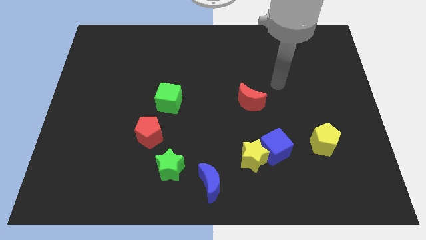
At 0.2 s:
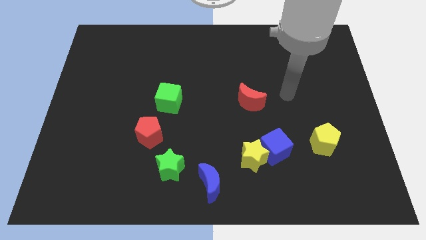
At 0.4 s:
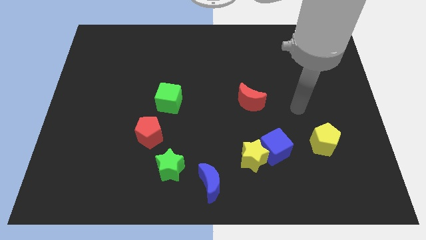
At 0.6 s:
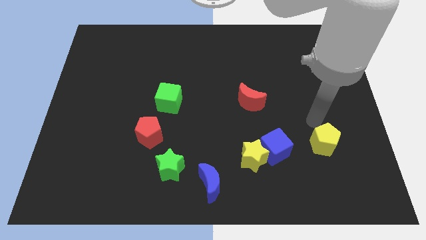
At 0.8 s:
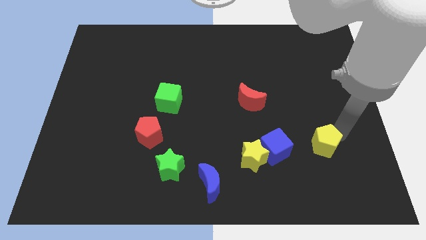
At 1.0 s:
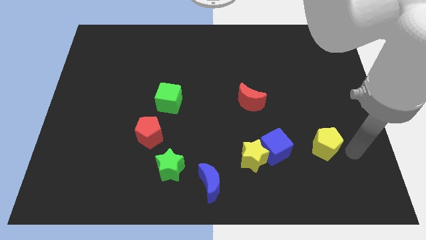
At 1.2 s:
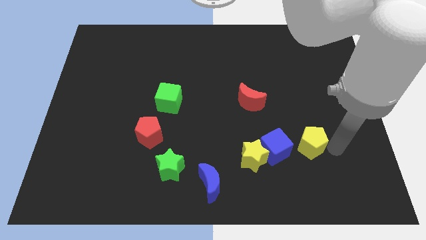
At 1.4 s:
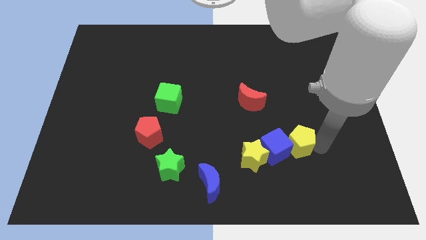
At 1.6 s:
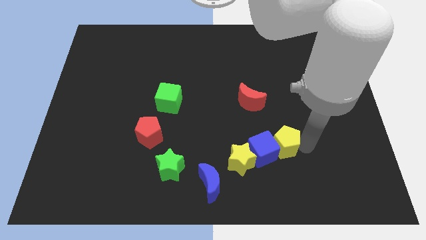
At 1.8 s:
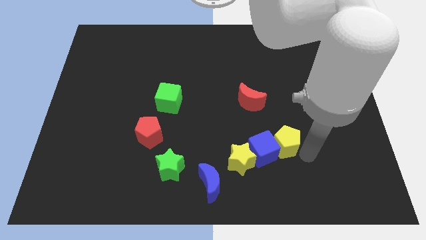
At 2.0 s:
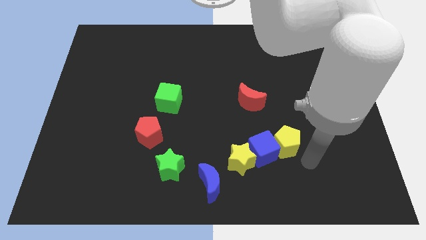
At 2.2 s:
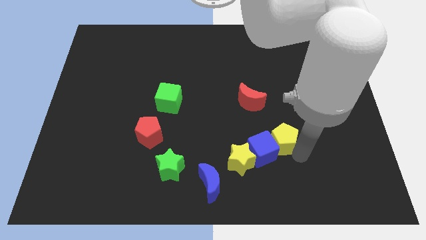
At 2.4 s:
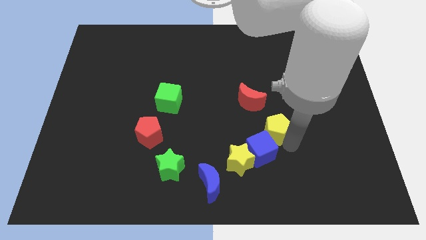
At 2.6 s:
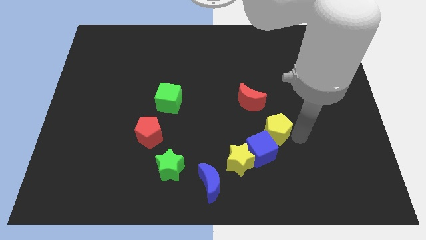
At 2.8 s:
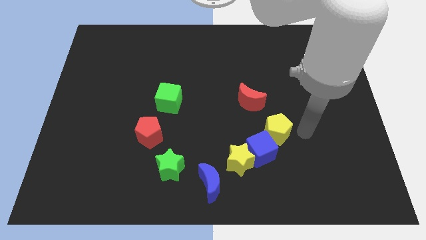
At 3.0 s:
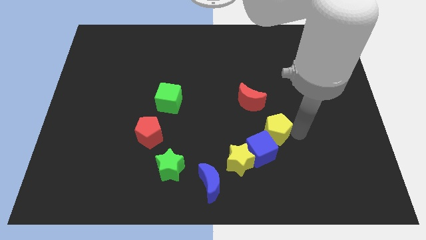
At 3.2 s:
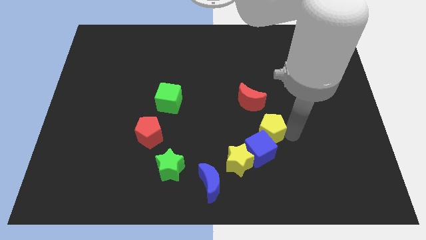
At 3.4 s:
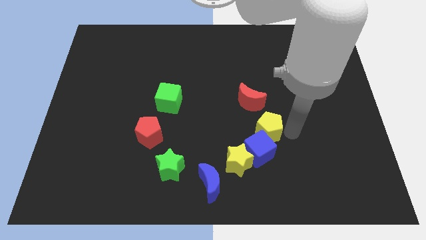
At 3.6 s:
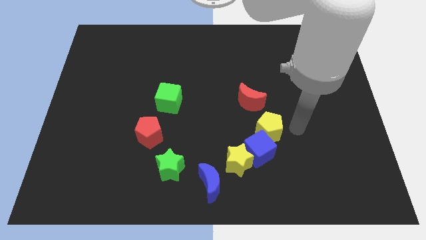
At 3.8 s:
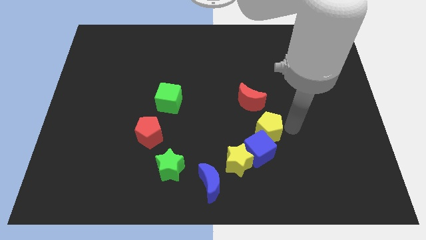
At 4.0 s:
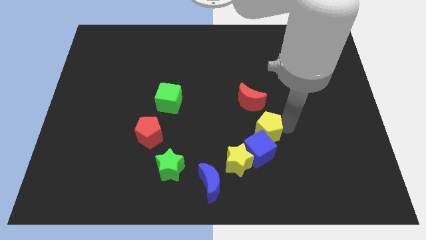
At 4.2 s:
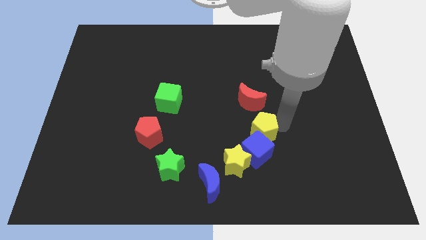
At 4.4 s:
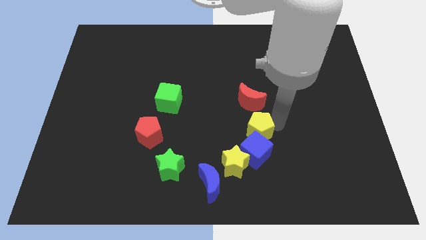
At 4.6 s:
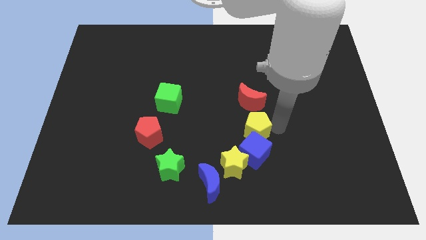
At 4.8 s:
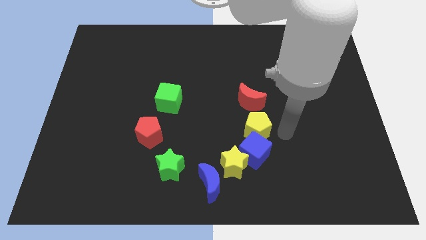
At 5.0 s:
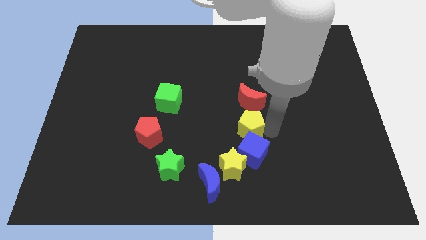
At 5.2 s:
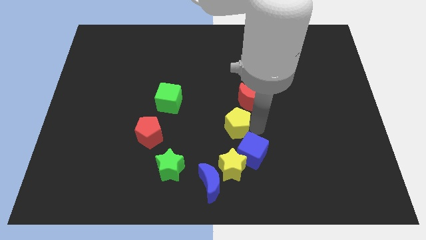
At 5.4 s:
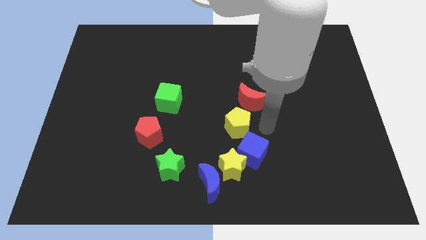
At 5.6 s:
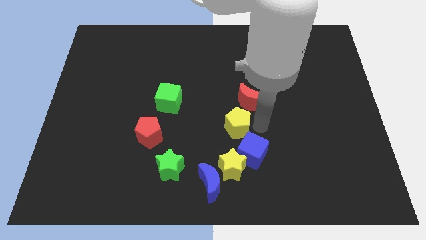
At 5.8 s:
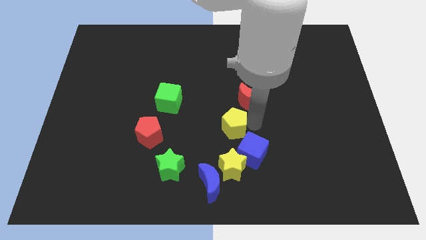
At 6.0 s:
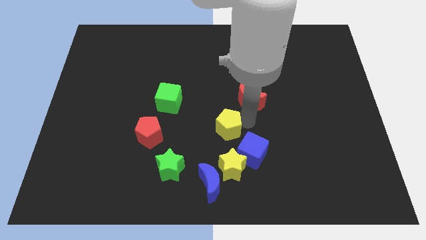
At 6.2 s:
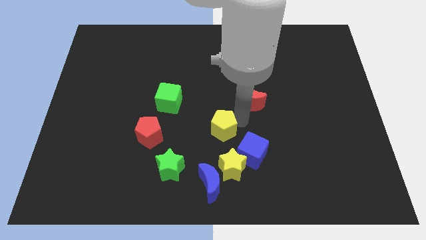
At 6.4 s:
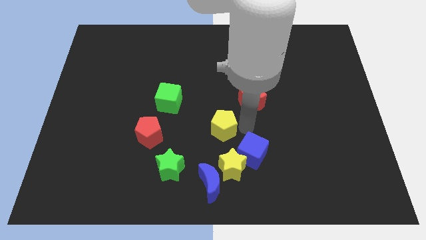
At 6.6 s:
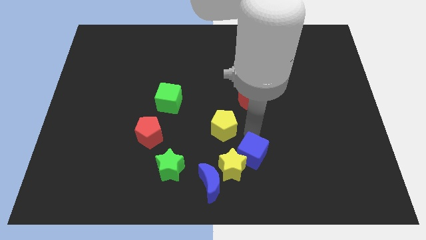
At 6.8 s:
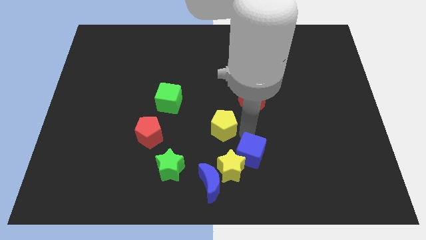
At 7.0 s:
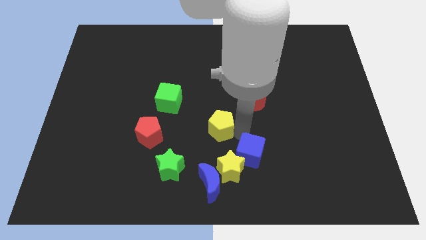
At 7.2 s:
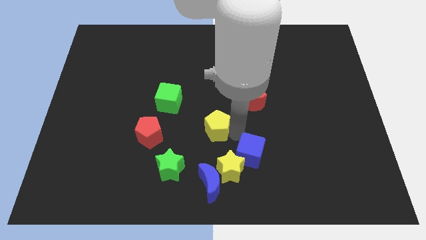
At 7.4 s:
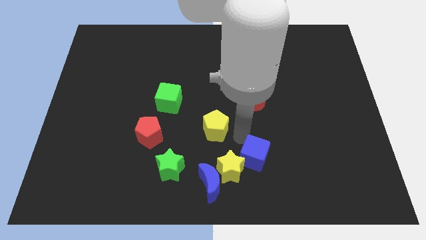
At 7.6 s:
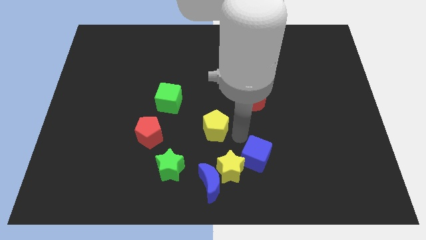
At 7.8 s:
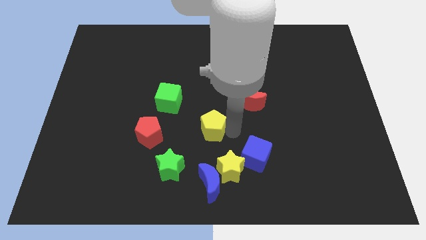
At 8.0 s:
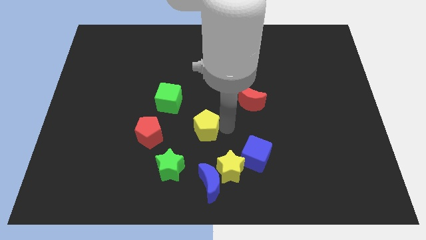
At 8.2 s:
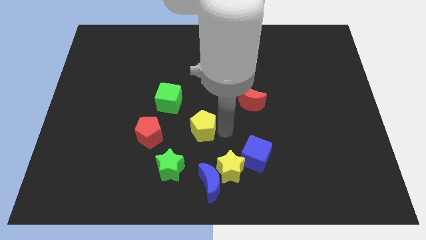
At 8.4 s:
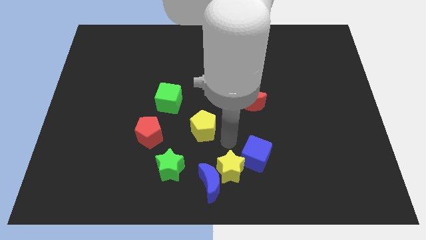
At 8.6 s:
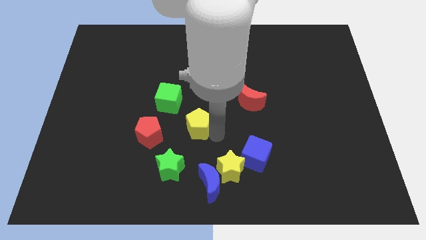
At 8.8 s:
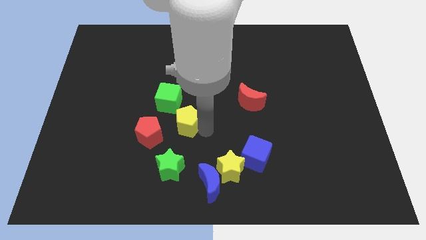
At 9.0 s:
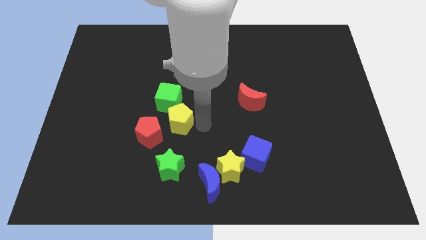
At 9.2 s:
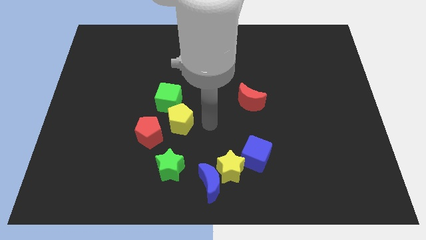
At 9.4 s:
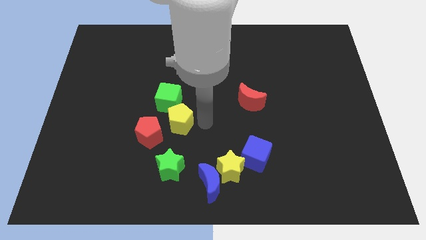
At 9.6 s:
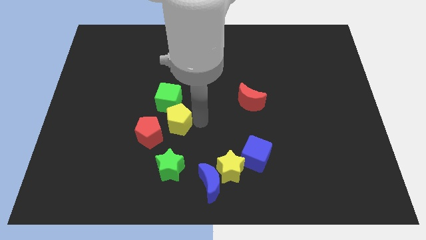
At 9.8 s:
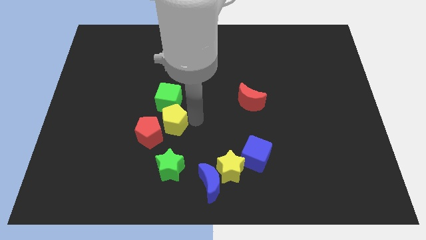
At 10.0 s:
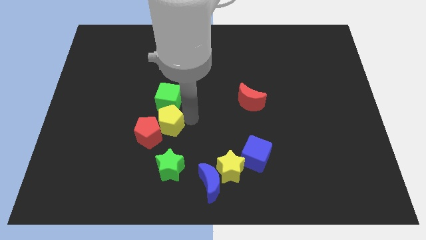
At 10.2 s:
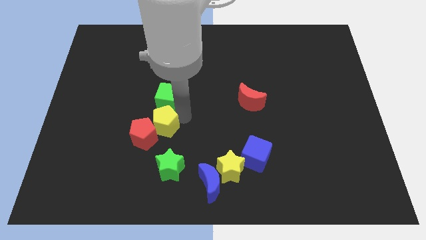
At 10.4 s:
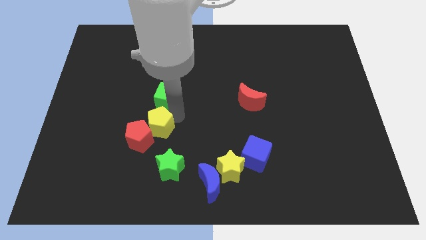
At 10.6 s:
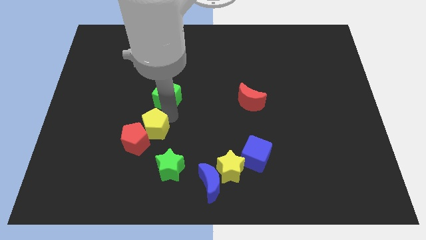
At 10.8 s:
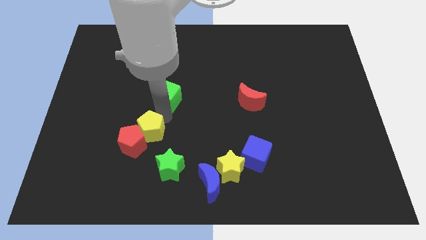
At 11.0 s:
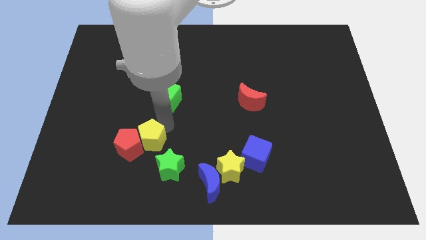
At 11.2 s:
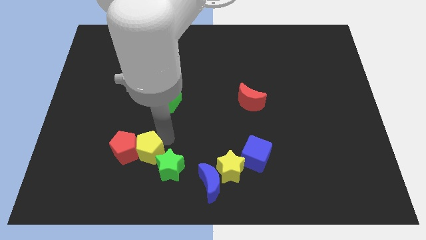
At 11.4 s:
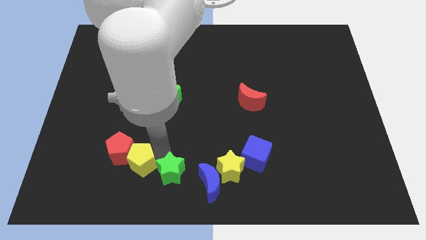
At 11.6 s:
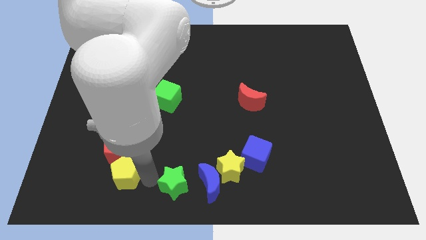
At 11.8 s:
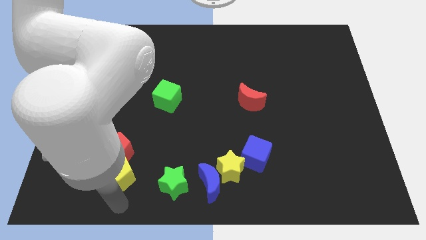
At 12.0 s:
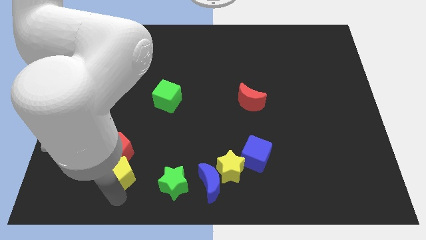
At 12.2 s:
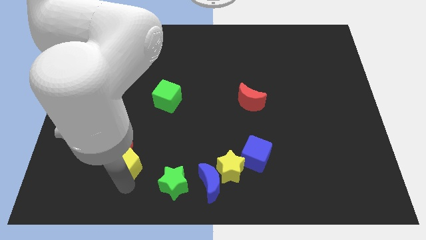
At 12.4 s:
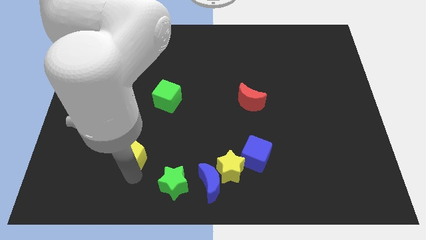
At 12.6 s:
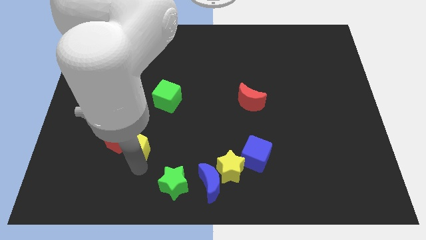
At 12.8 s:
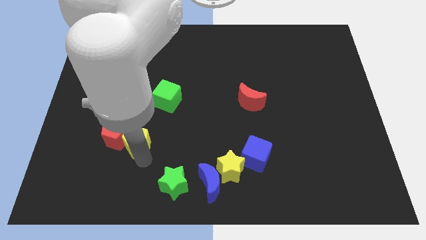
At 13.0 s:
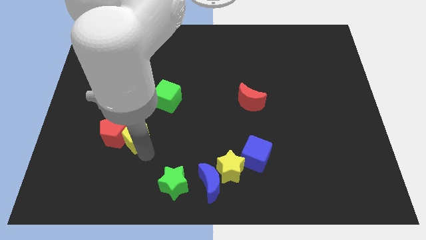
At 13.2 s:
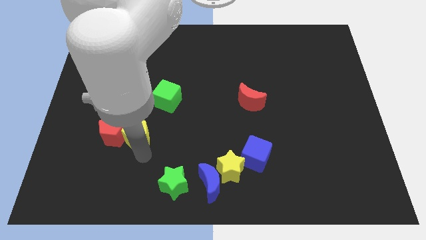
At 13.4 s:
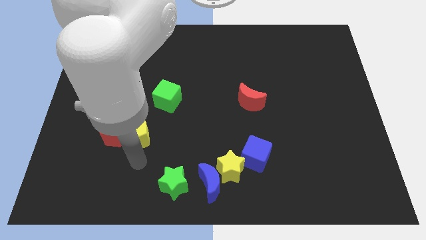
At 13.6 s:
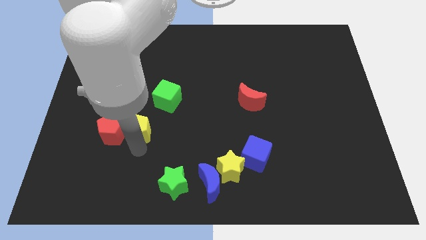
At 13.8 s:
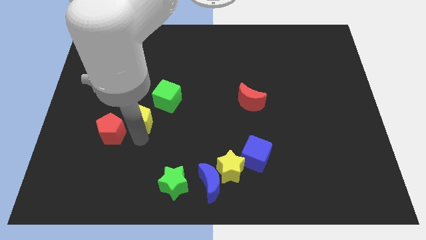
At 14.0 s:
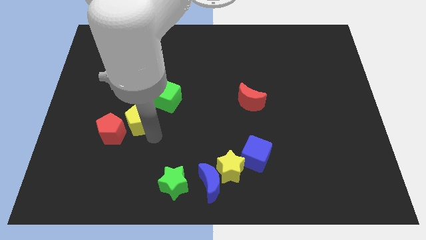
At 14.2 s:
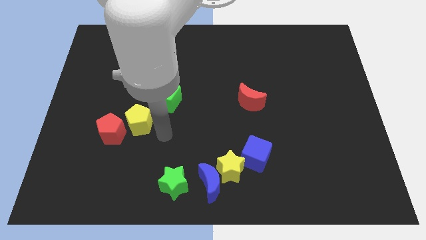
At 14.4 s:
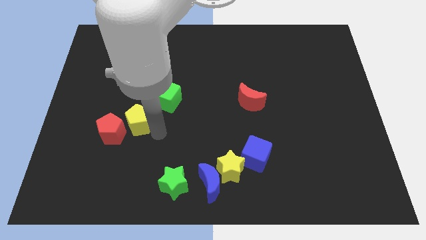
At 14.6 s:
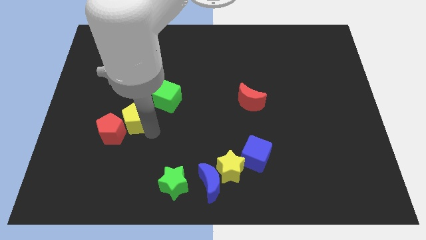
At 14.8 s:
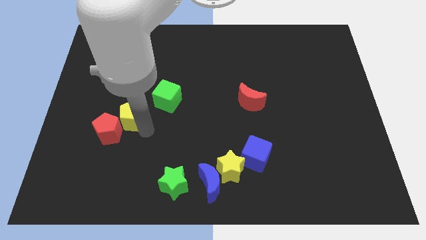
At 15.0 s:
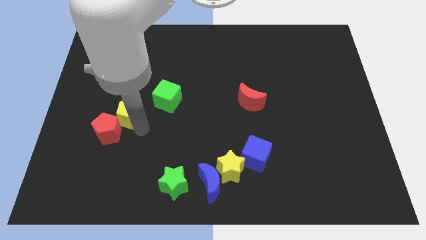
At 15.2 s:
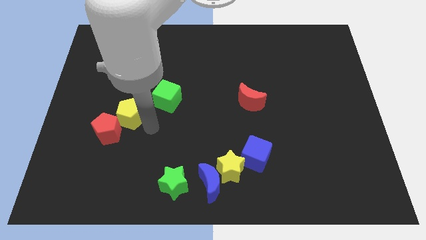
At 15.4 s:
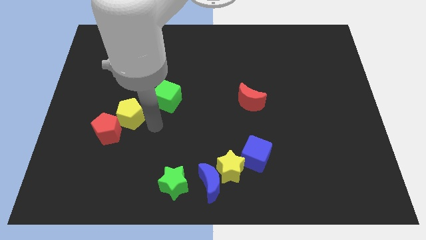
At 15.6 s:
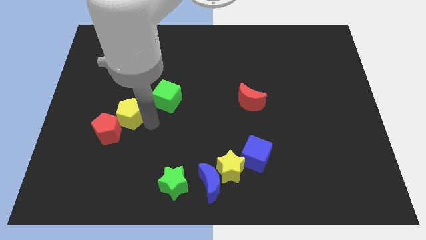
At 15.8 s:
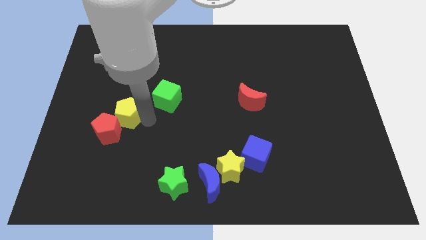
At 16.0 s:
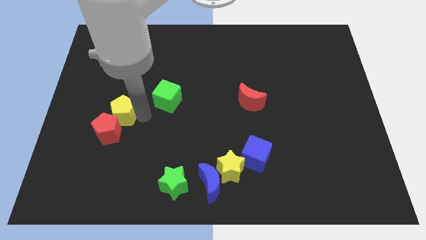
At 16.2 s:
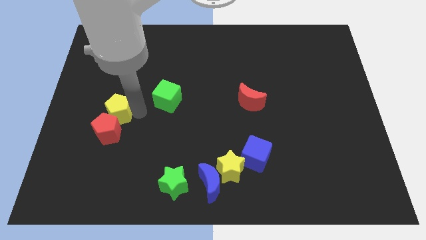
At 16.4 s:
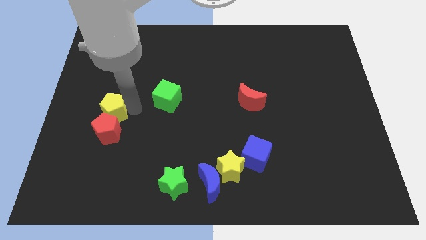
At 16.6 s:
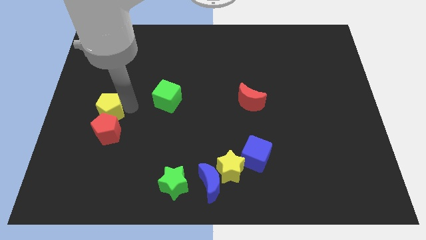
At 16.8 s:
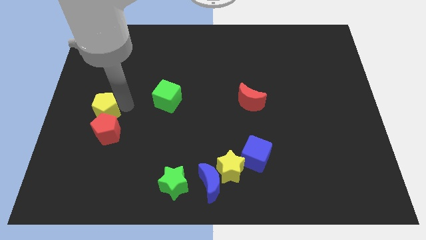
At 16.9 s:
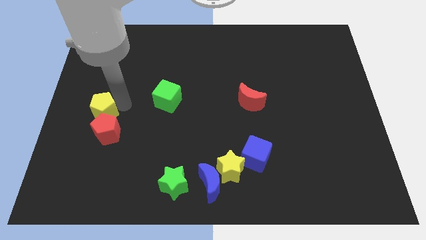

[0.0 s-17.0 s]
put the yellow pentagon to the left side of the board
